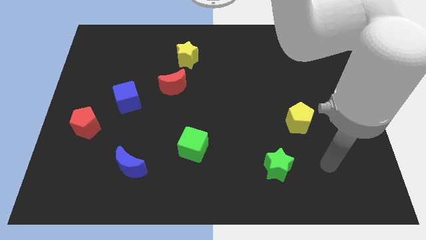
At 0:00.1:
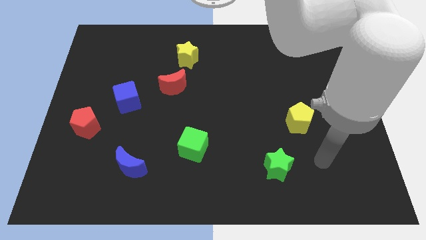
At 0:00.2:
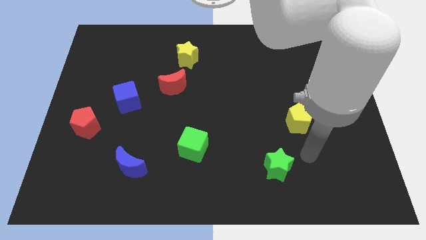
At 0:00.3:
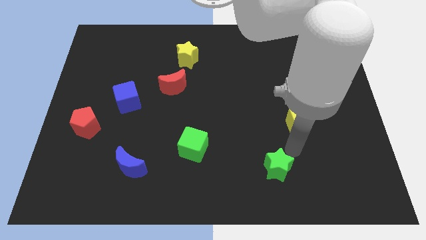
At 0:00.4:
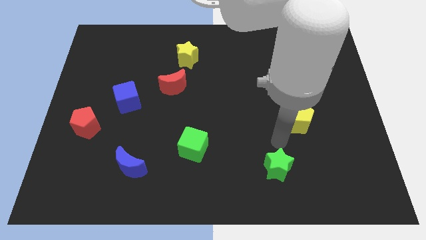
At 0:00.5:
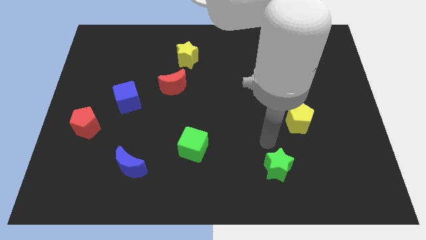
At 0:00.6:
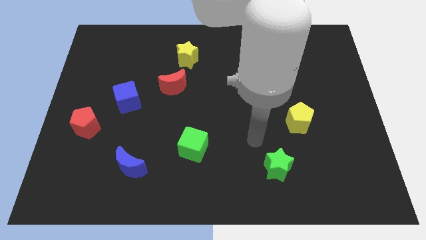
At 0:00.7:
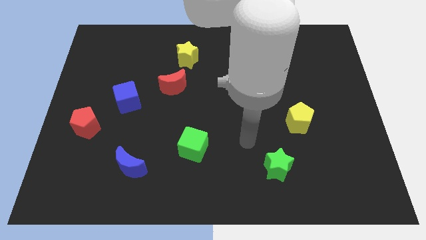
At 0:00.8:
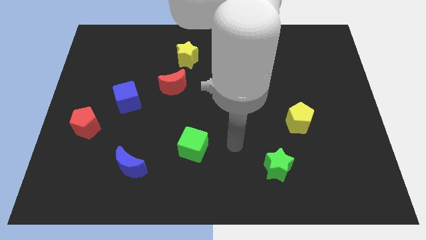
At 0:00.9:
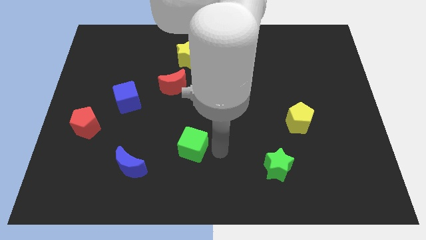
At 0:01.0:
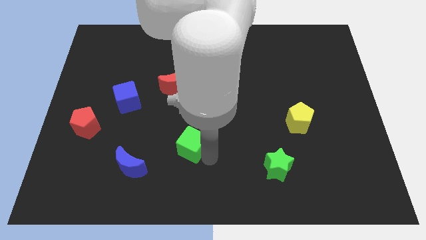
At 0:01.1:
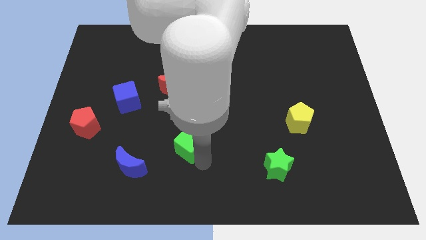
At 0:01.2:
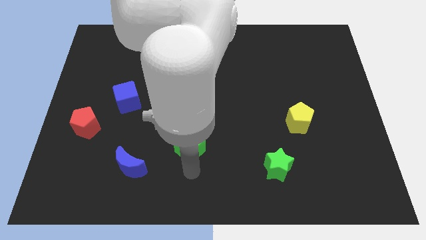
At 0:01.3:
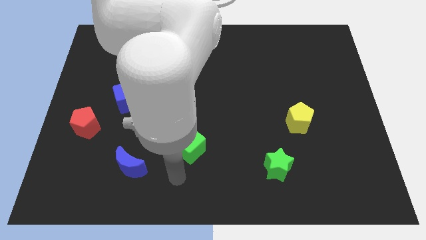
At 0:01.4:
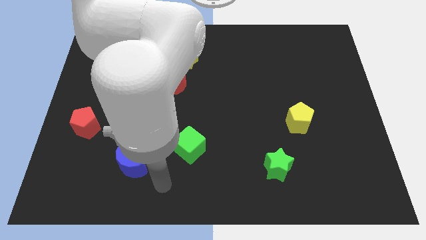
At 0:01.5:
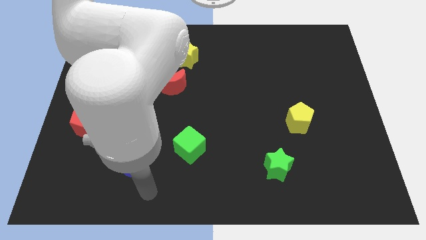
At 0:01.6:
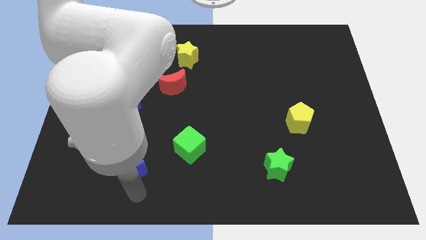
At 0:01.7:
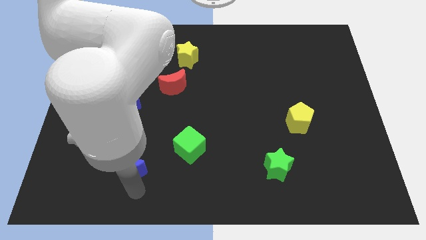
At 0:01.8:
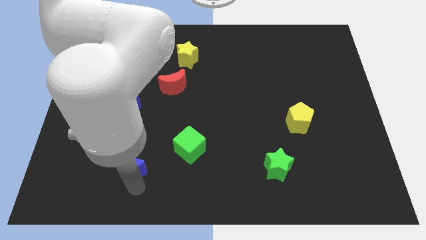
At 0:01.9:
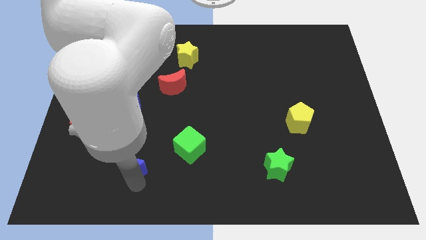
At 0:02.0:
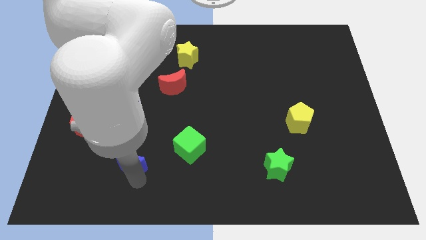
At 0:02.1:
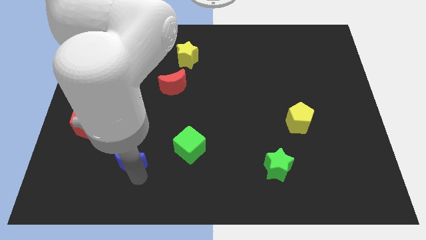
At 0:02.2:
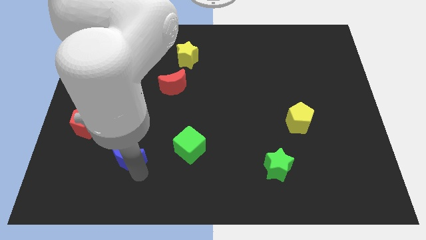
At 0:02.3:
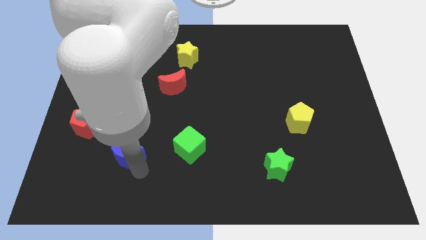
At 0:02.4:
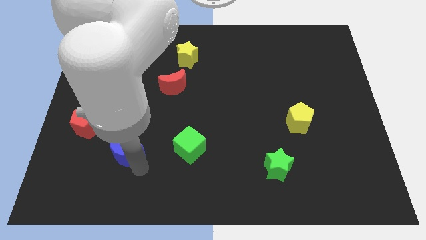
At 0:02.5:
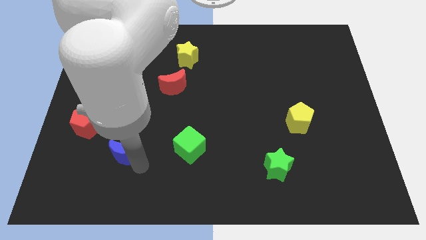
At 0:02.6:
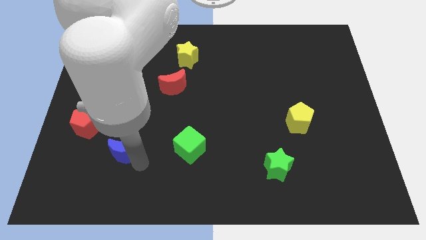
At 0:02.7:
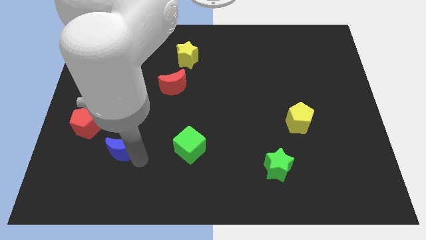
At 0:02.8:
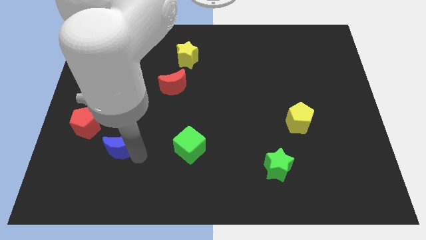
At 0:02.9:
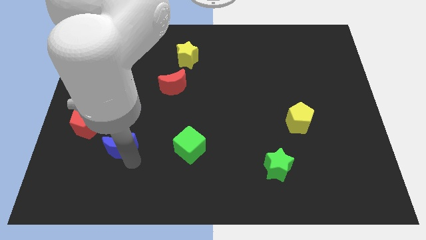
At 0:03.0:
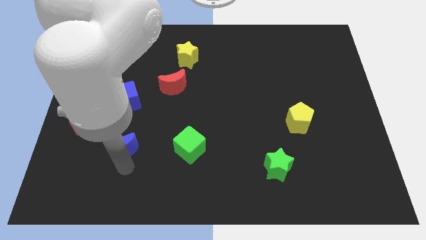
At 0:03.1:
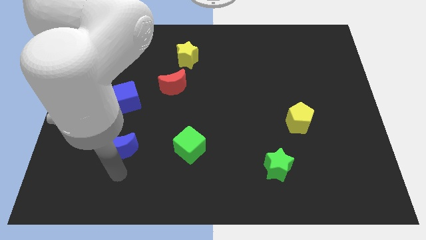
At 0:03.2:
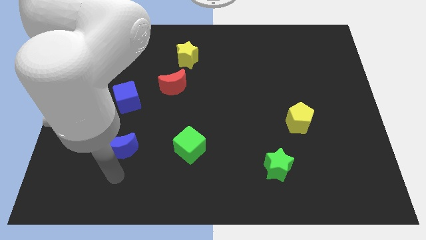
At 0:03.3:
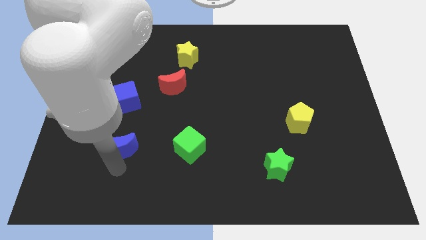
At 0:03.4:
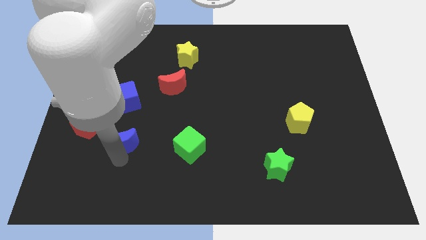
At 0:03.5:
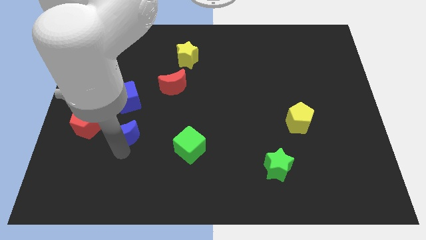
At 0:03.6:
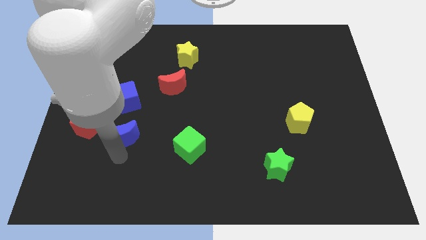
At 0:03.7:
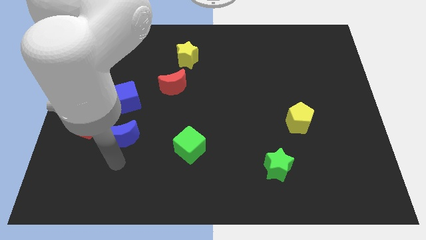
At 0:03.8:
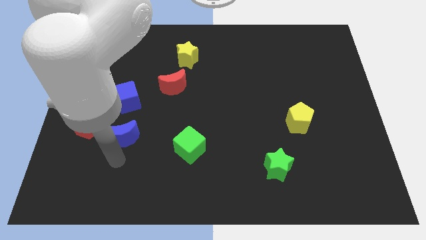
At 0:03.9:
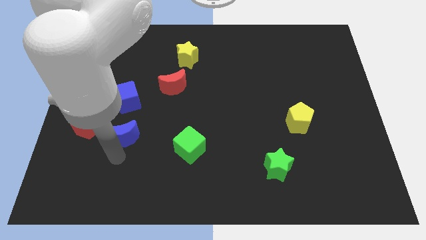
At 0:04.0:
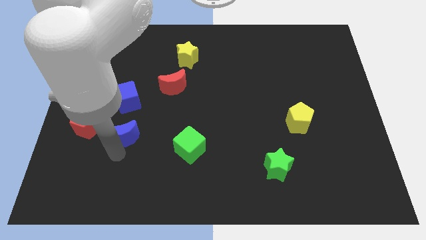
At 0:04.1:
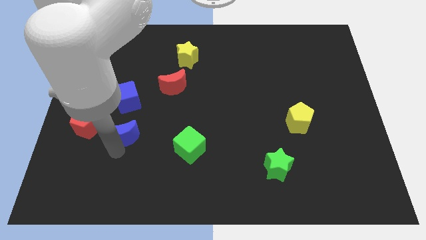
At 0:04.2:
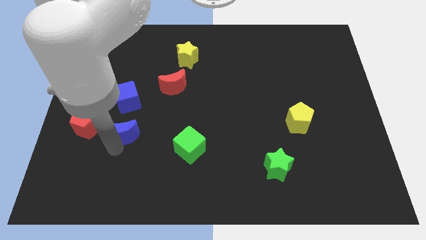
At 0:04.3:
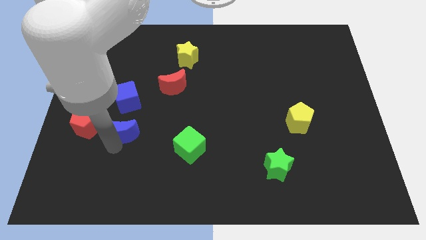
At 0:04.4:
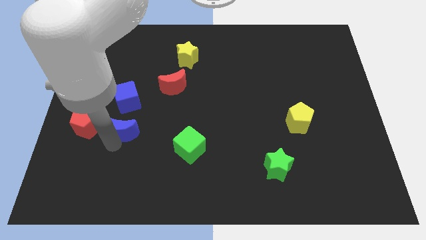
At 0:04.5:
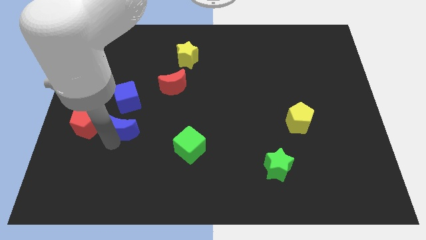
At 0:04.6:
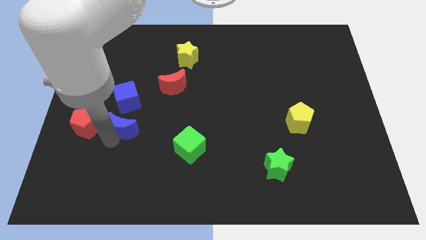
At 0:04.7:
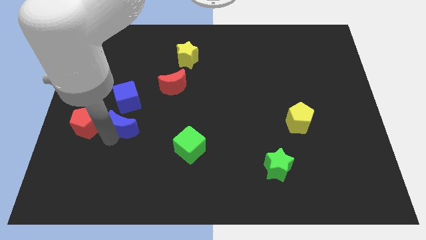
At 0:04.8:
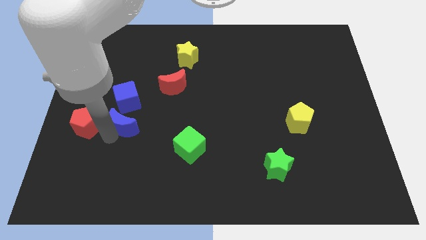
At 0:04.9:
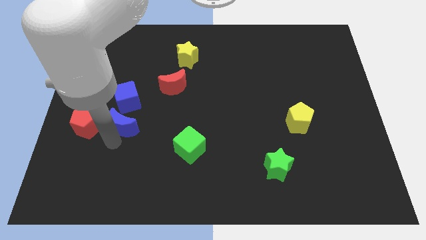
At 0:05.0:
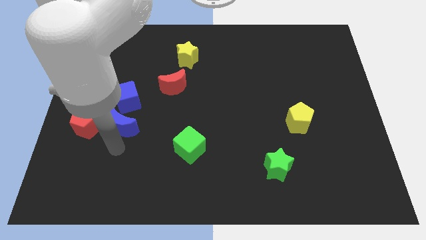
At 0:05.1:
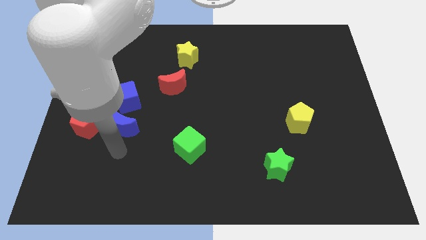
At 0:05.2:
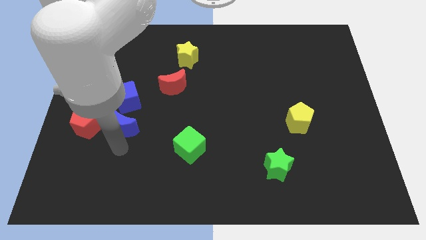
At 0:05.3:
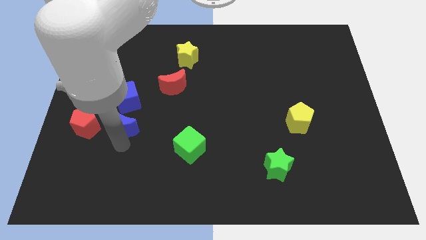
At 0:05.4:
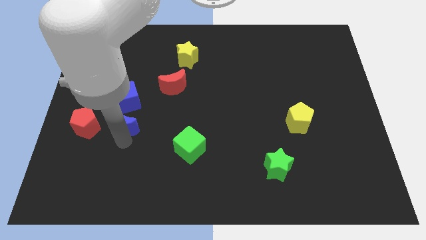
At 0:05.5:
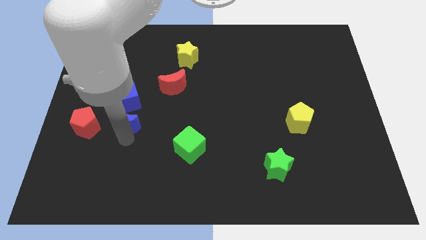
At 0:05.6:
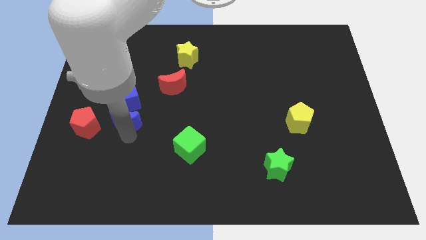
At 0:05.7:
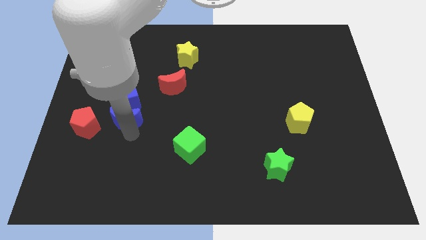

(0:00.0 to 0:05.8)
push the blue moon next to the blue cube

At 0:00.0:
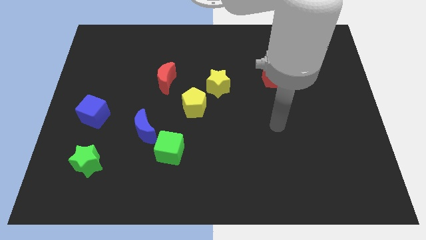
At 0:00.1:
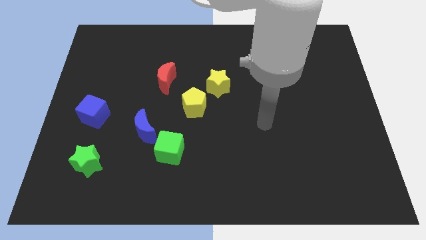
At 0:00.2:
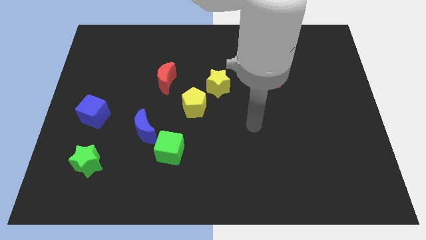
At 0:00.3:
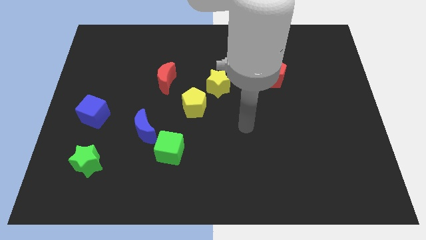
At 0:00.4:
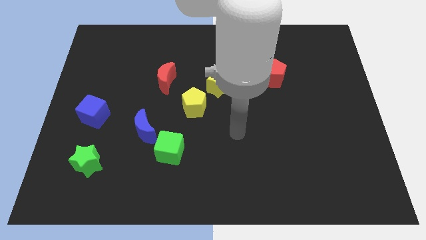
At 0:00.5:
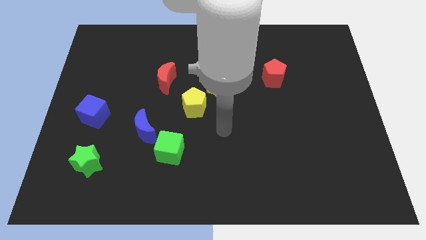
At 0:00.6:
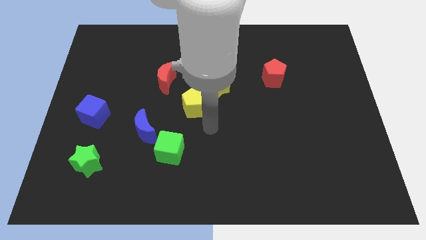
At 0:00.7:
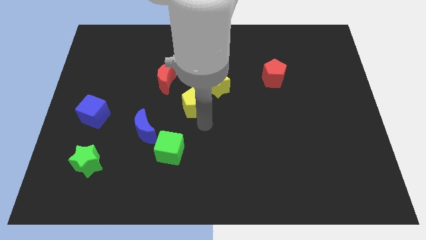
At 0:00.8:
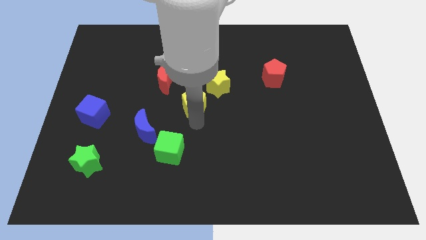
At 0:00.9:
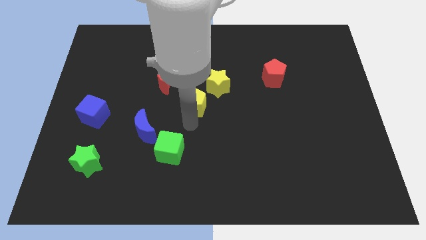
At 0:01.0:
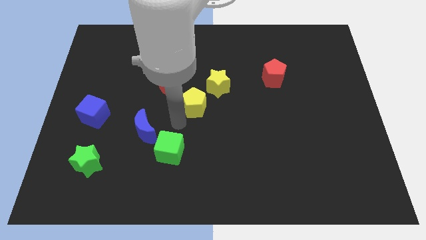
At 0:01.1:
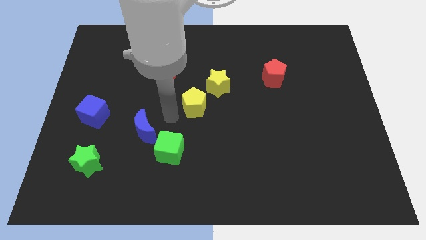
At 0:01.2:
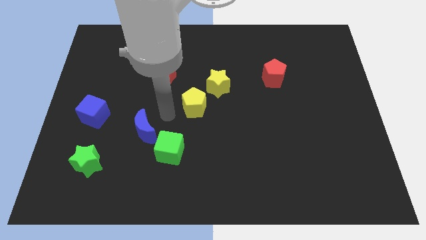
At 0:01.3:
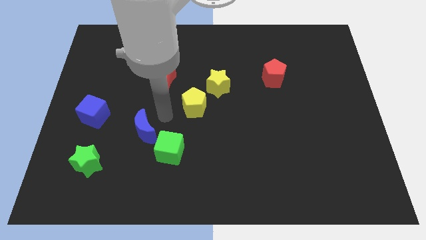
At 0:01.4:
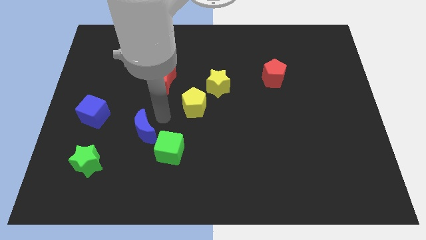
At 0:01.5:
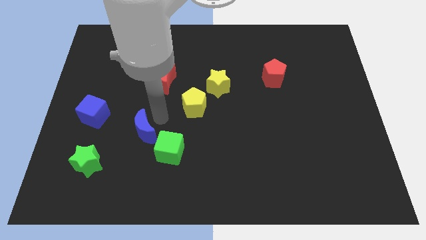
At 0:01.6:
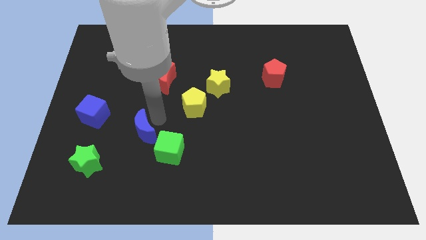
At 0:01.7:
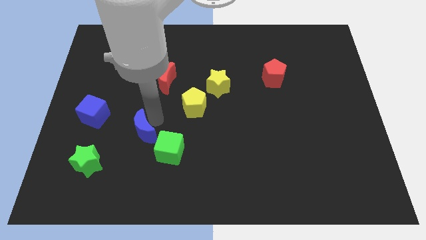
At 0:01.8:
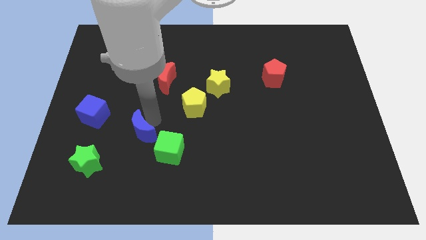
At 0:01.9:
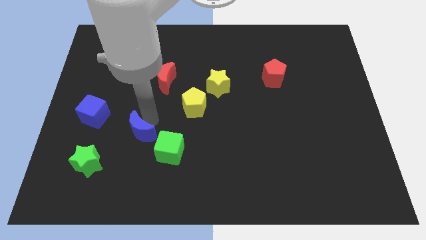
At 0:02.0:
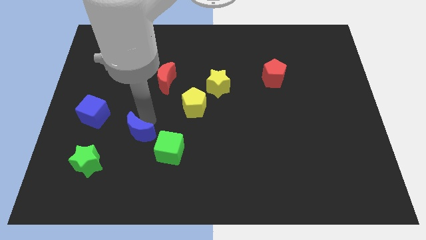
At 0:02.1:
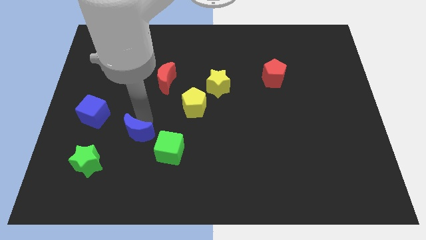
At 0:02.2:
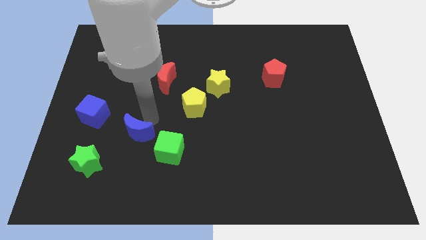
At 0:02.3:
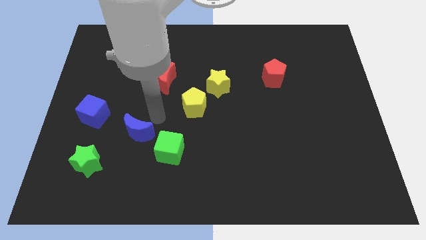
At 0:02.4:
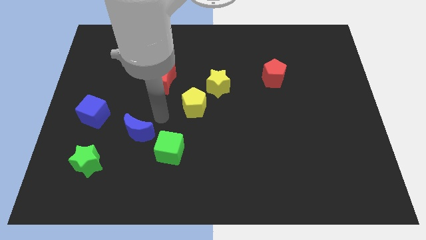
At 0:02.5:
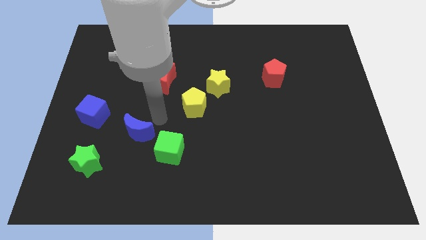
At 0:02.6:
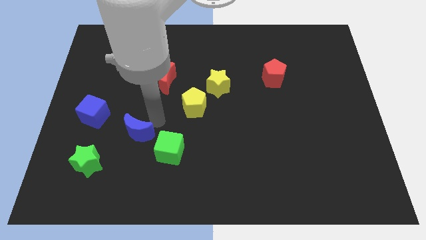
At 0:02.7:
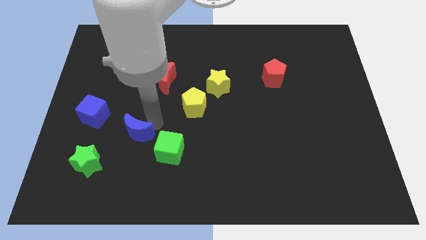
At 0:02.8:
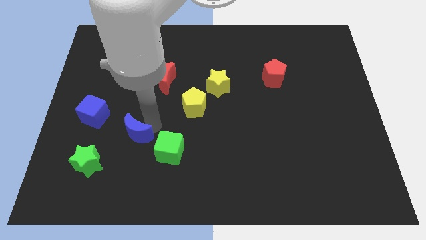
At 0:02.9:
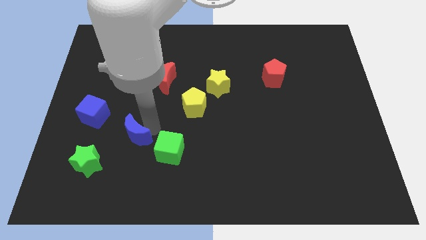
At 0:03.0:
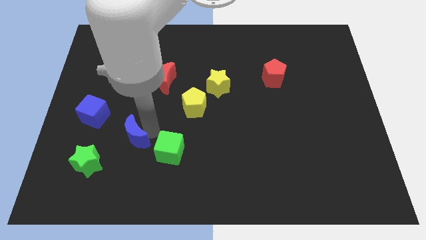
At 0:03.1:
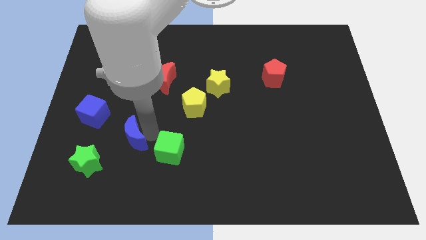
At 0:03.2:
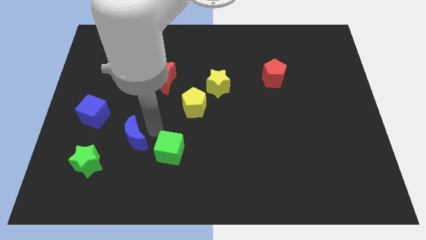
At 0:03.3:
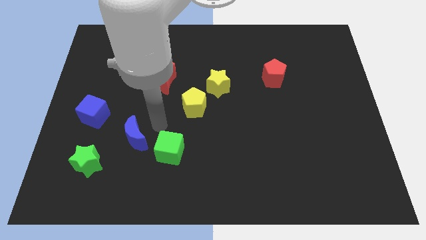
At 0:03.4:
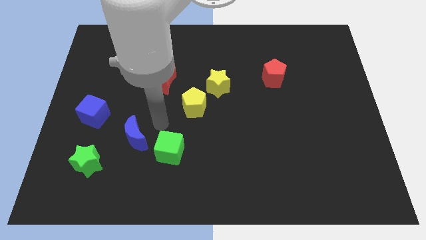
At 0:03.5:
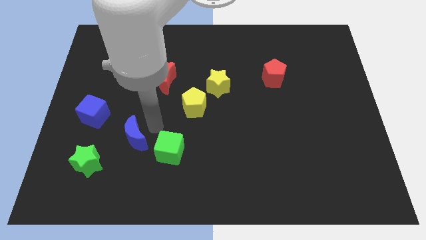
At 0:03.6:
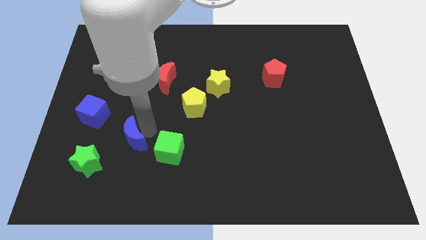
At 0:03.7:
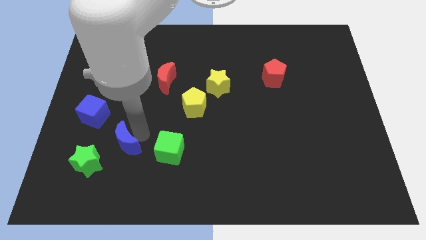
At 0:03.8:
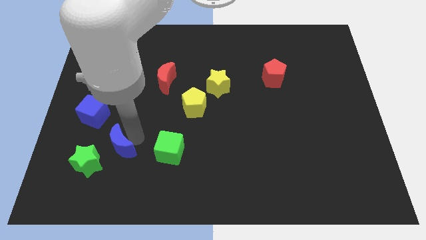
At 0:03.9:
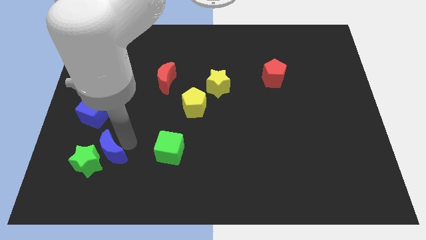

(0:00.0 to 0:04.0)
put the blue moon next to the green star
